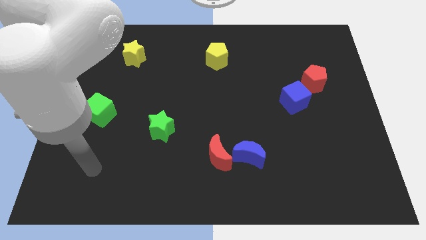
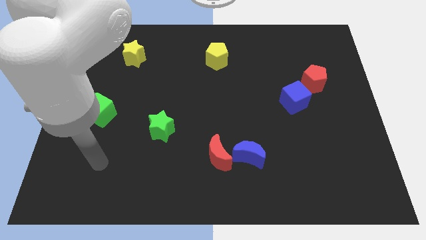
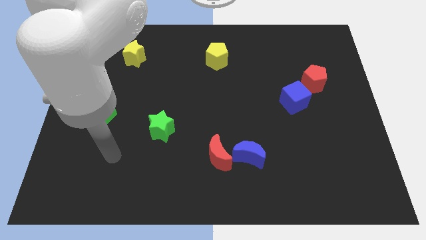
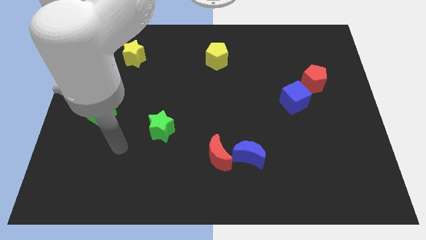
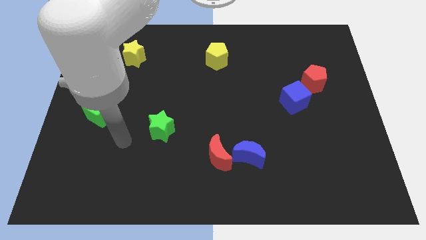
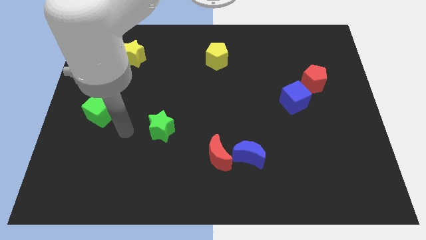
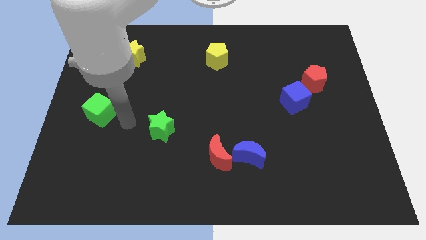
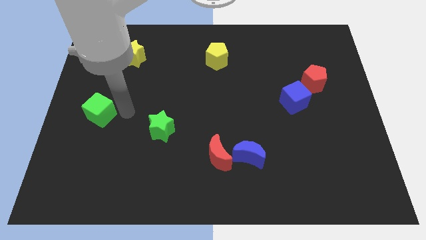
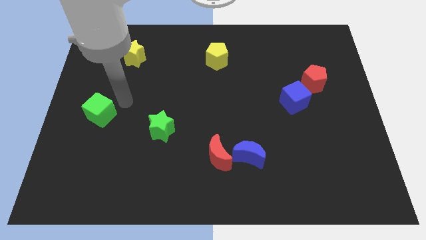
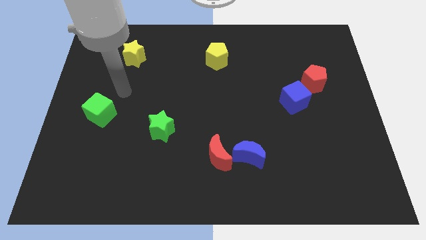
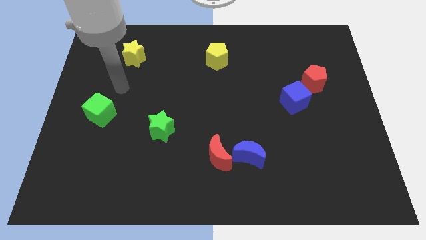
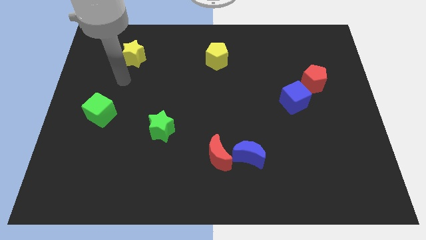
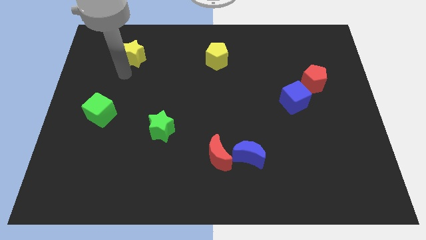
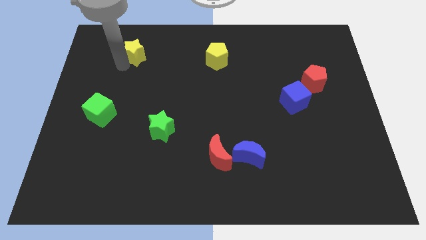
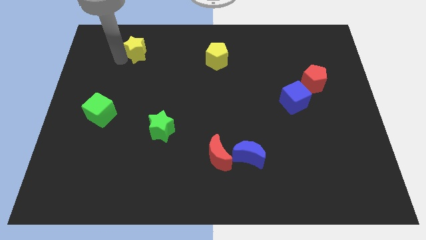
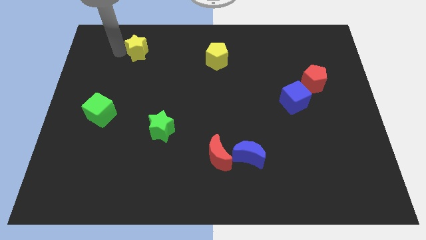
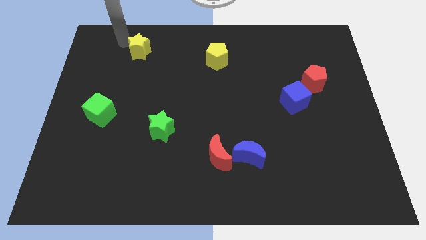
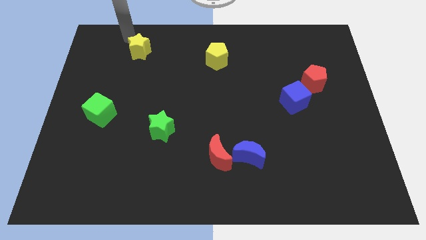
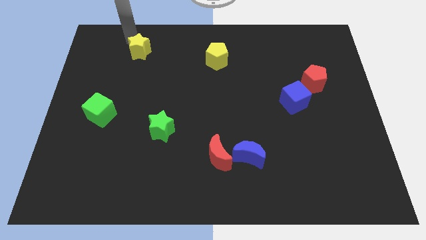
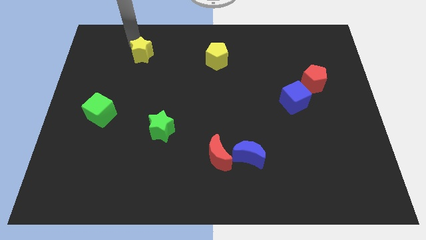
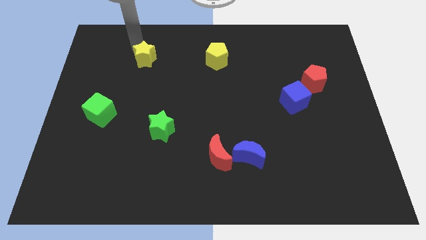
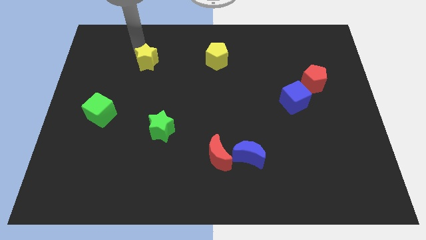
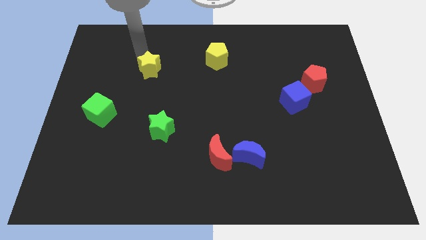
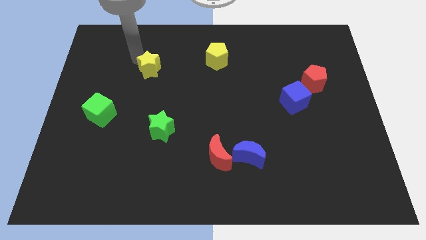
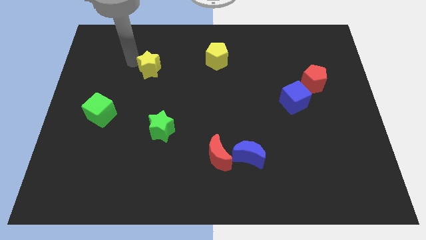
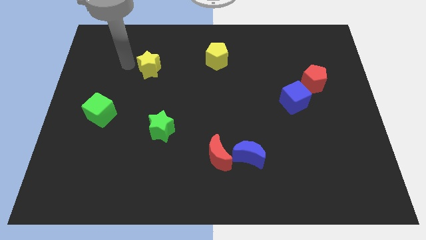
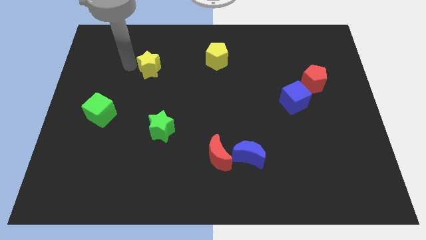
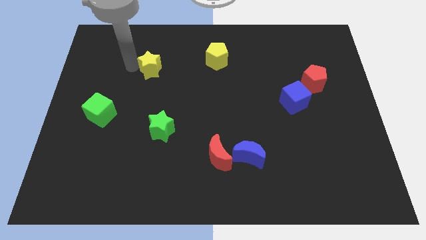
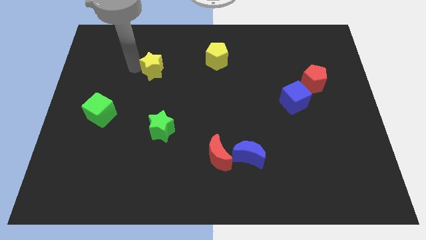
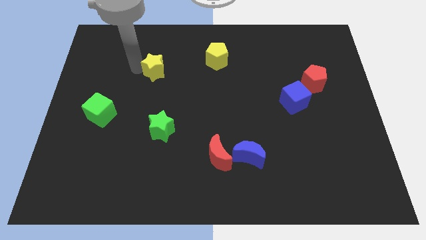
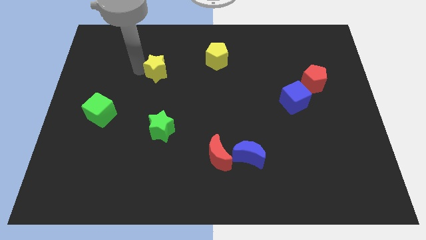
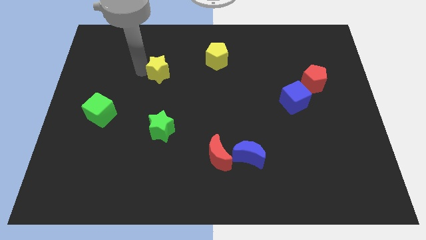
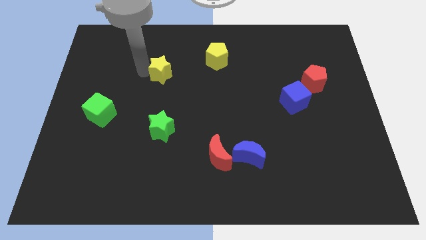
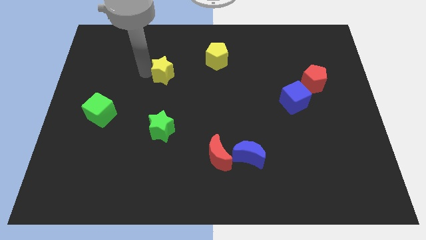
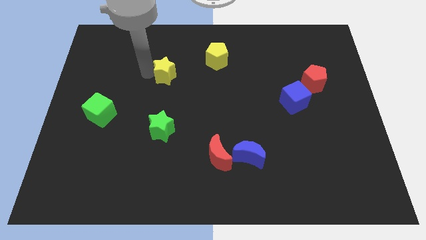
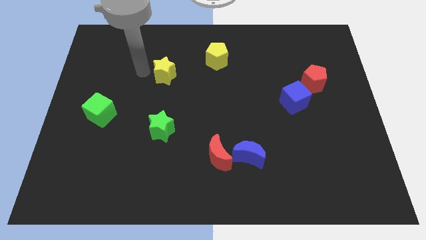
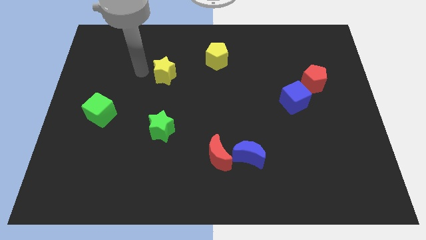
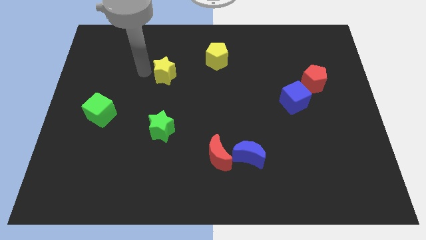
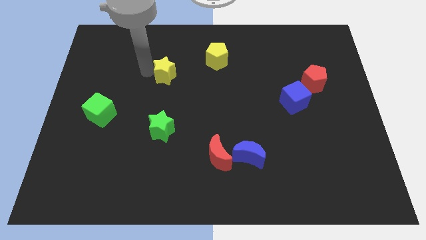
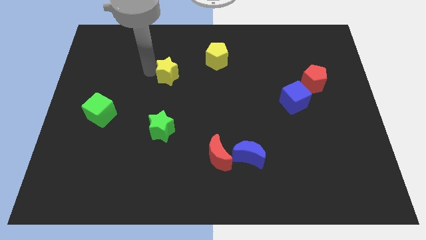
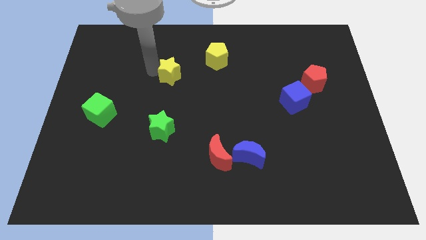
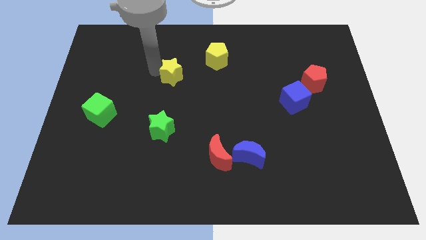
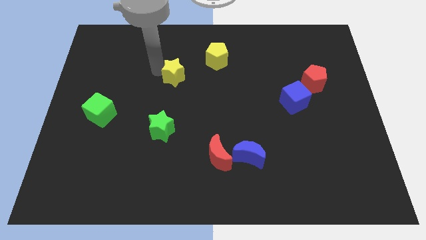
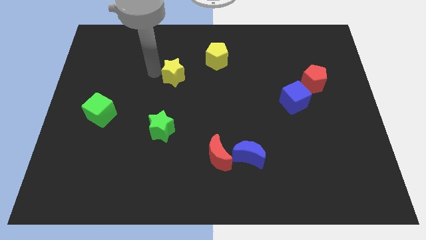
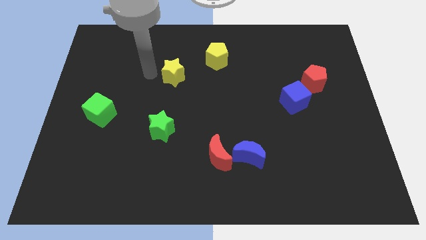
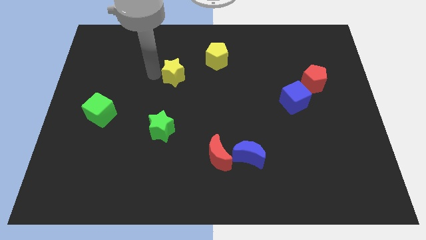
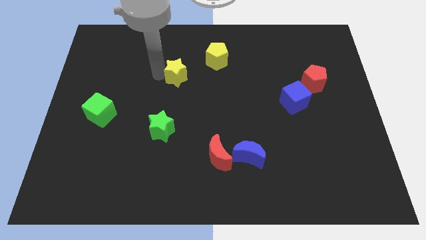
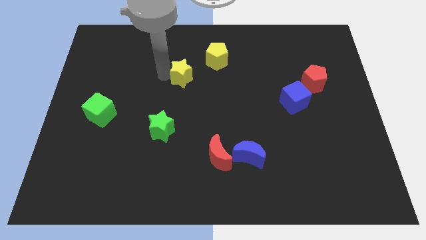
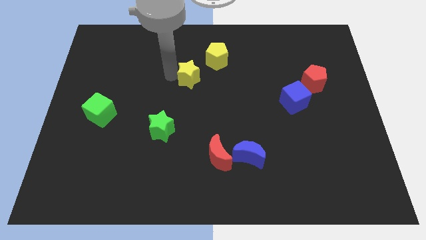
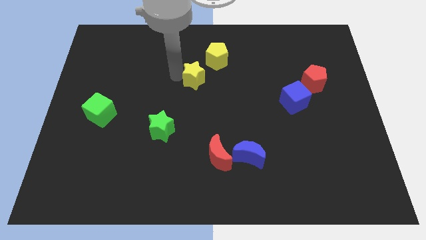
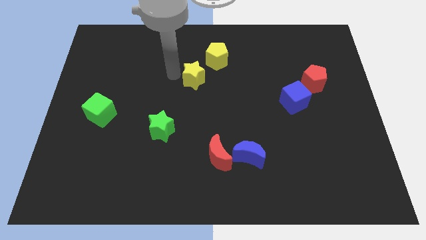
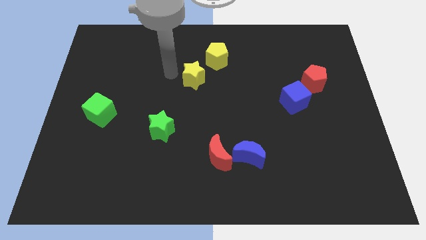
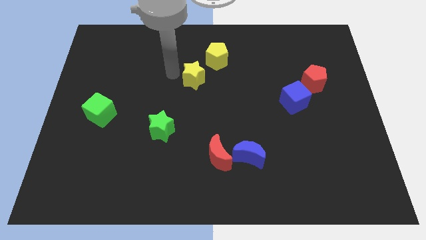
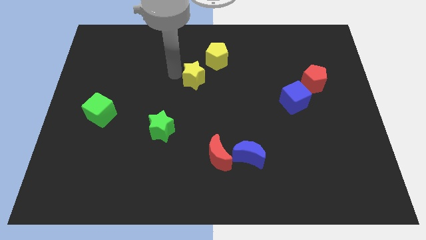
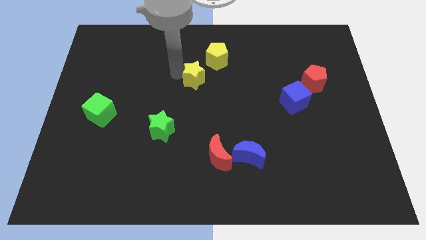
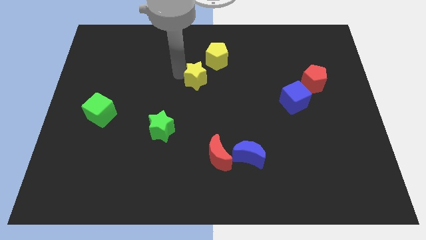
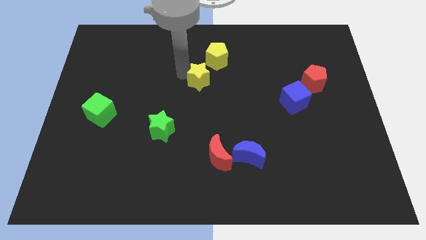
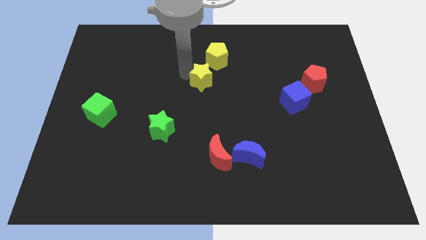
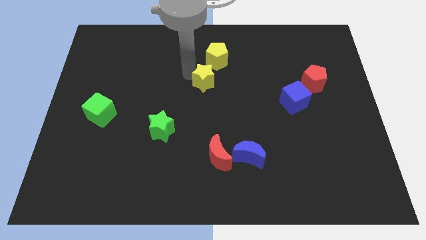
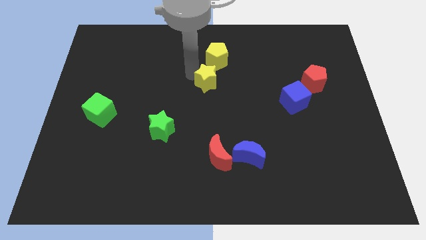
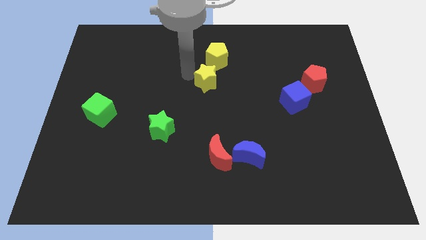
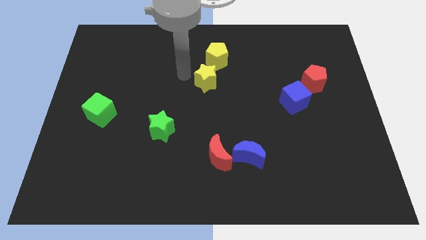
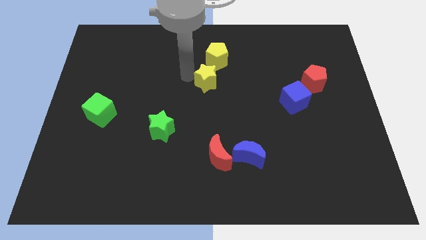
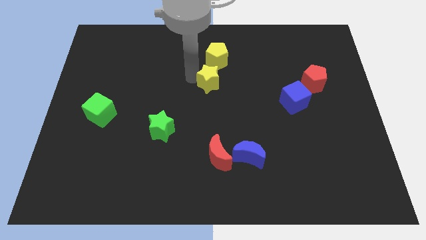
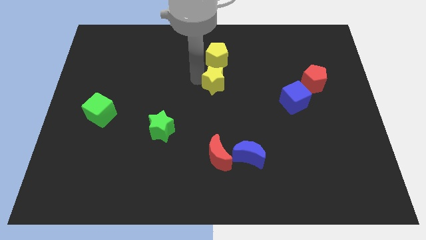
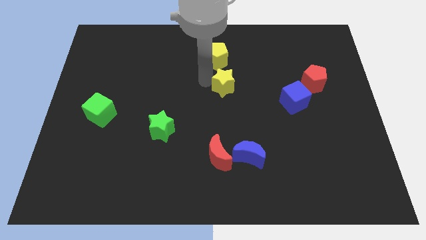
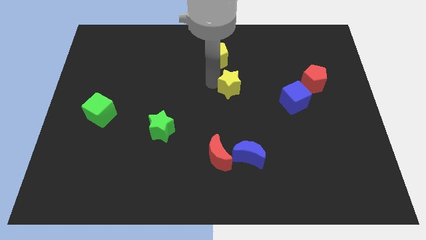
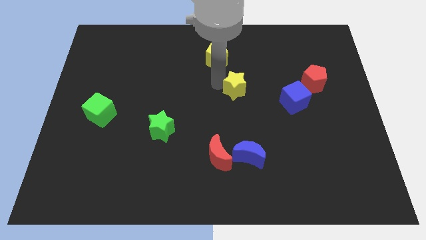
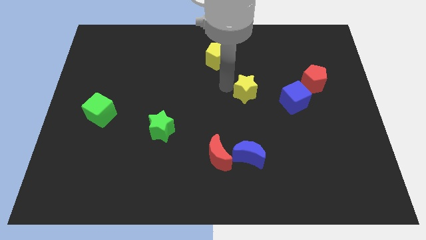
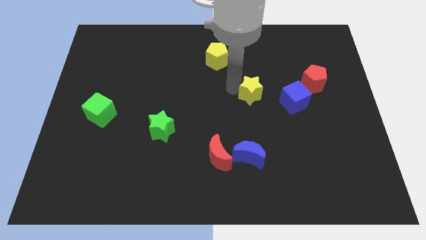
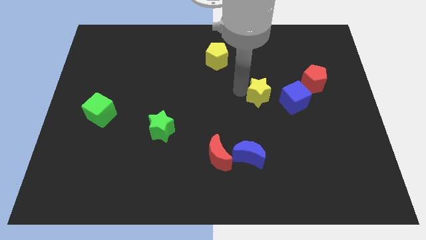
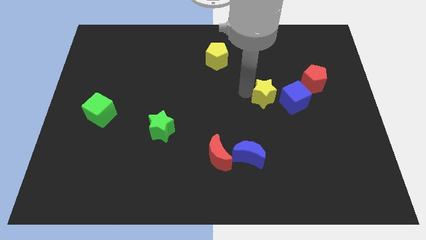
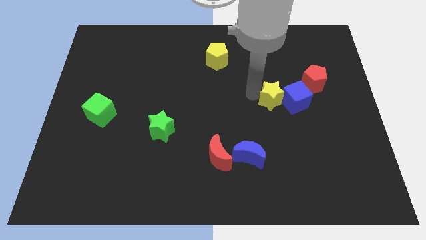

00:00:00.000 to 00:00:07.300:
push the yellow star close to the blue cube
